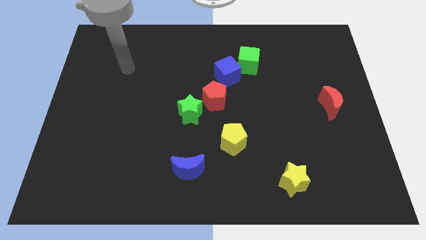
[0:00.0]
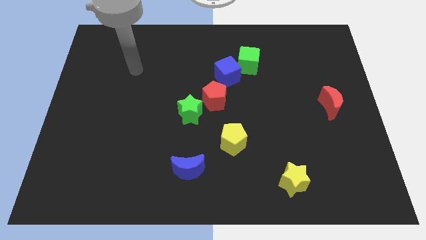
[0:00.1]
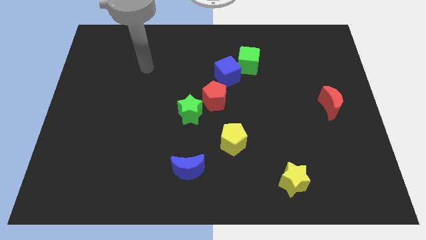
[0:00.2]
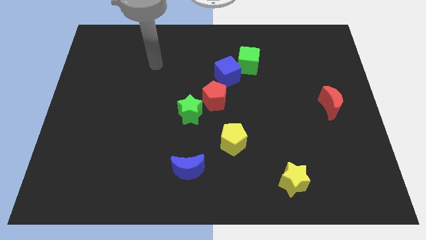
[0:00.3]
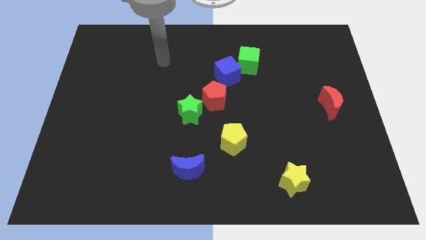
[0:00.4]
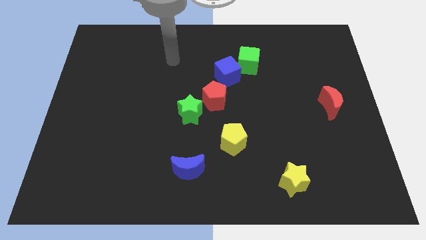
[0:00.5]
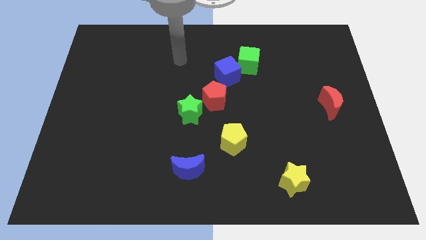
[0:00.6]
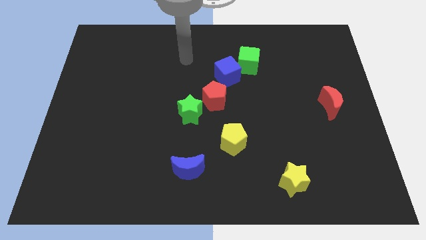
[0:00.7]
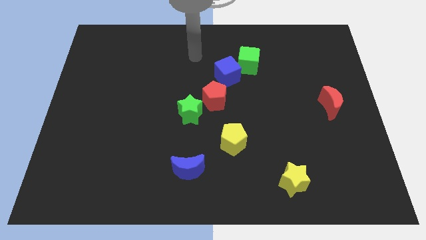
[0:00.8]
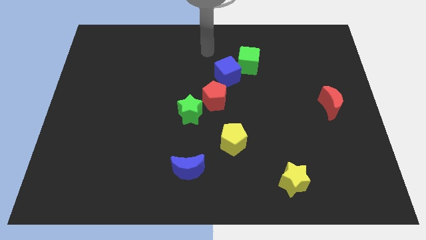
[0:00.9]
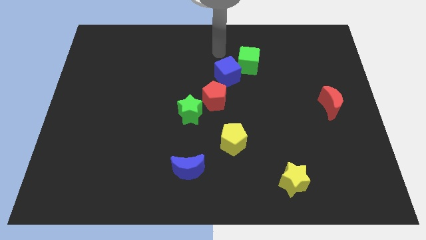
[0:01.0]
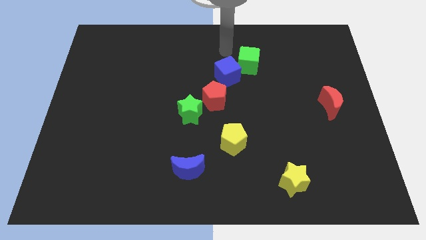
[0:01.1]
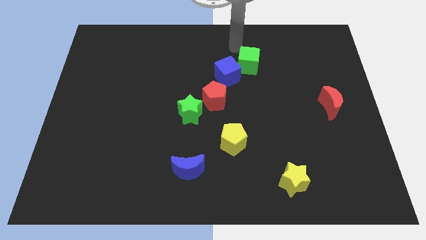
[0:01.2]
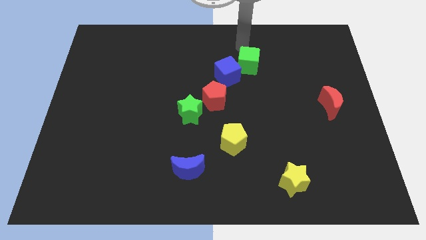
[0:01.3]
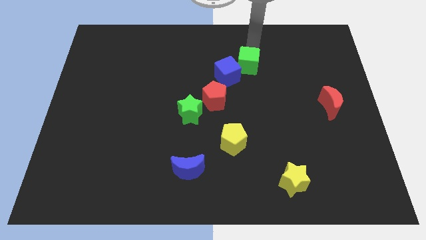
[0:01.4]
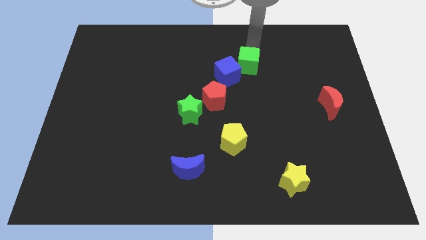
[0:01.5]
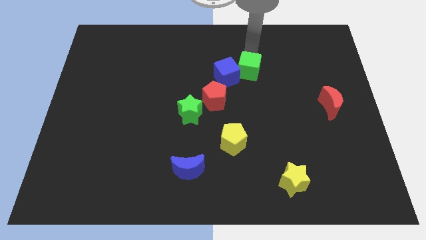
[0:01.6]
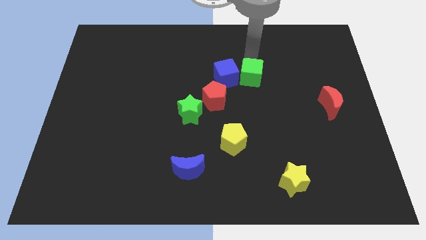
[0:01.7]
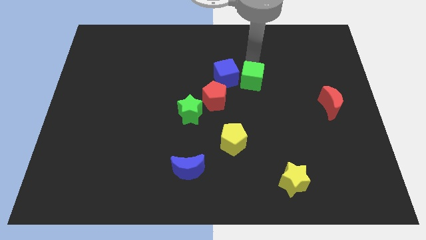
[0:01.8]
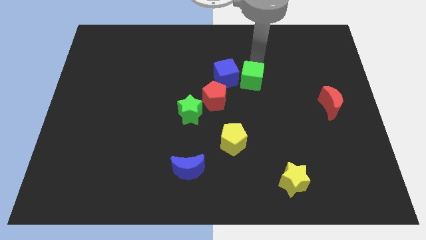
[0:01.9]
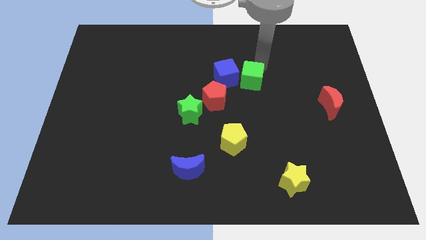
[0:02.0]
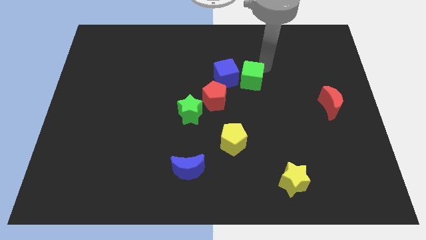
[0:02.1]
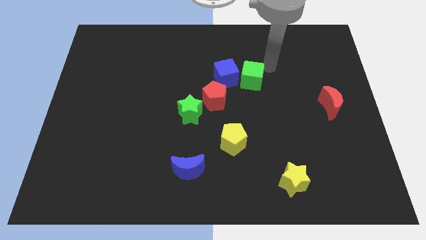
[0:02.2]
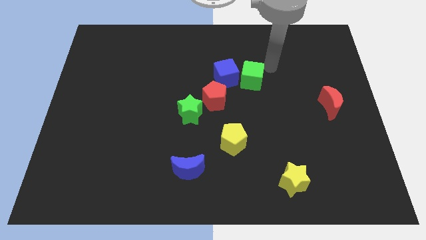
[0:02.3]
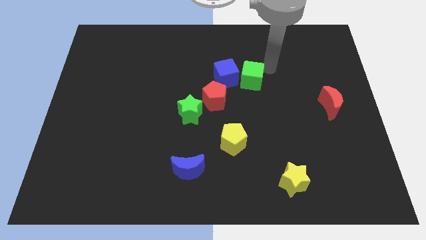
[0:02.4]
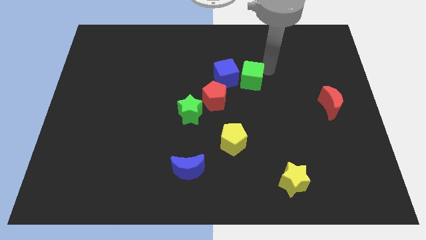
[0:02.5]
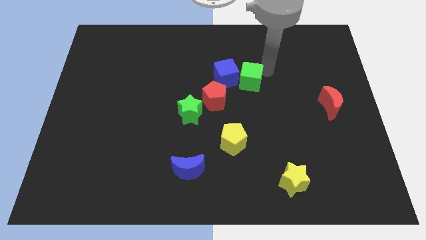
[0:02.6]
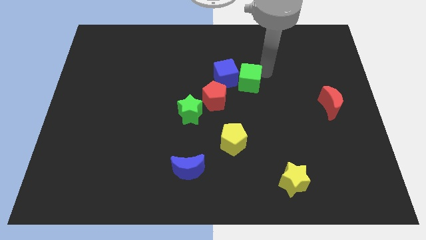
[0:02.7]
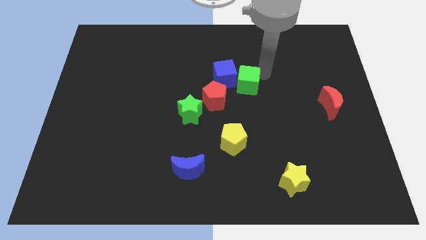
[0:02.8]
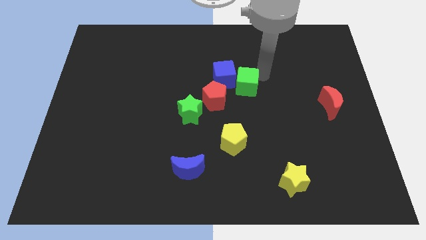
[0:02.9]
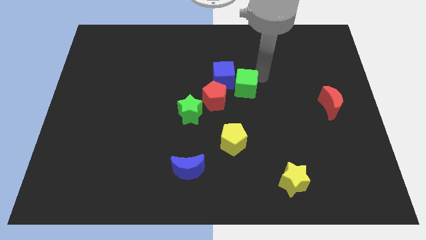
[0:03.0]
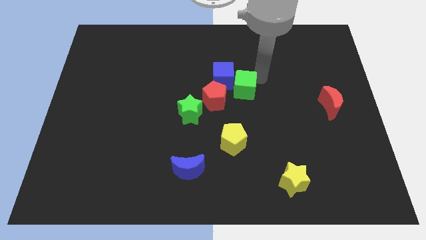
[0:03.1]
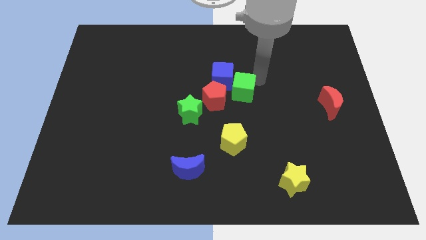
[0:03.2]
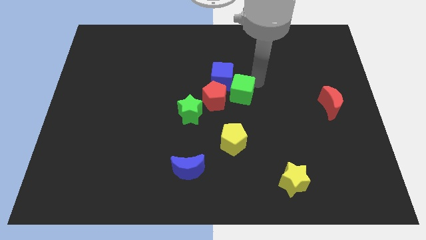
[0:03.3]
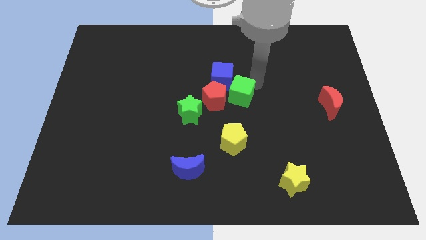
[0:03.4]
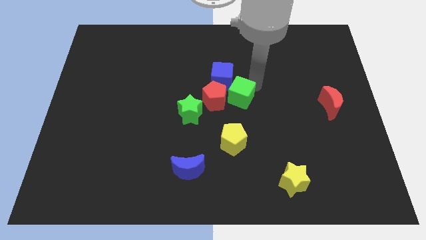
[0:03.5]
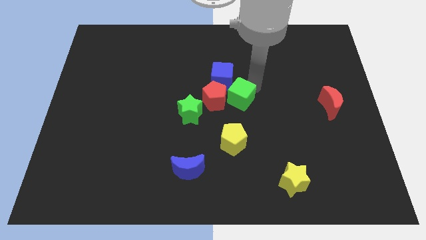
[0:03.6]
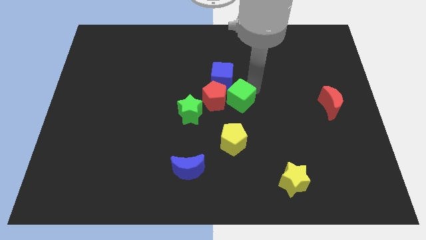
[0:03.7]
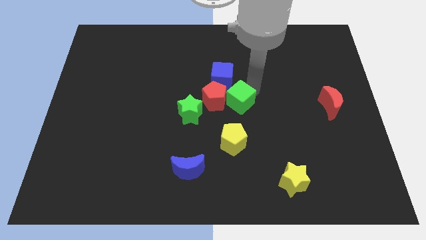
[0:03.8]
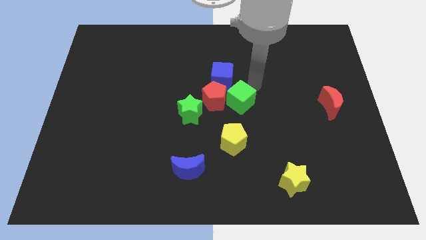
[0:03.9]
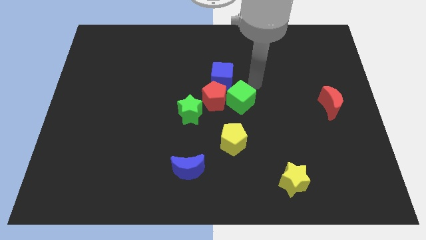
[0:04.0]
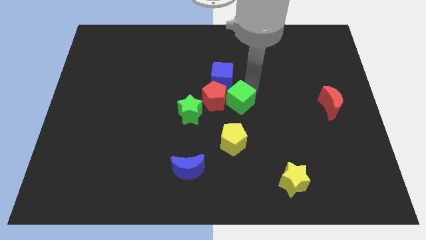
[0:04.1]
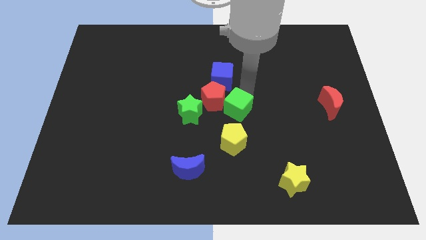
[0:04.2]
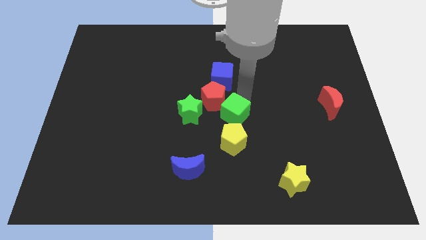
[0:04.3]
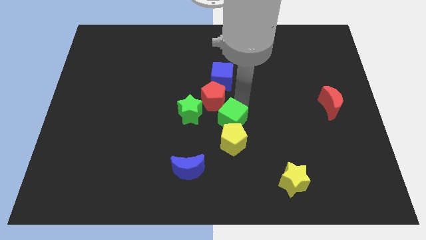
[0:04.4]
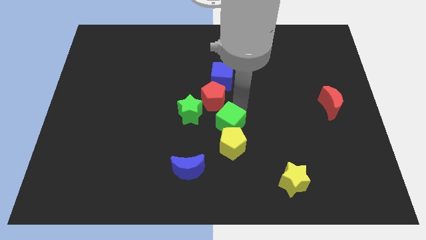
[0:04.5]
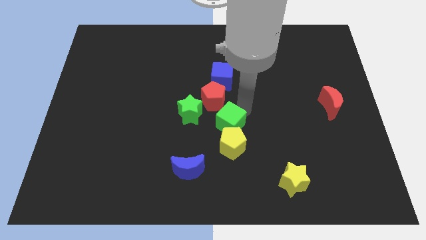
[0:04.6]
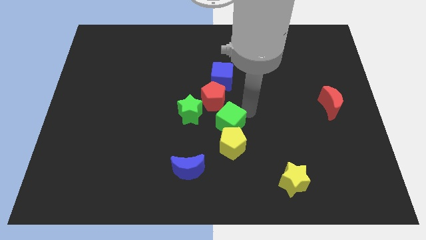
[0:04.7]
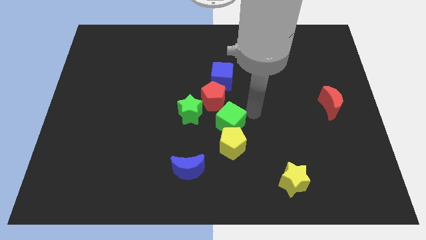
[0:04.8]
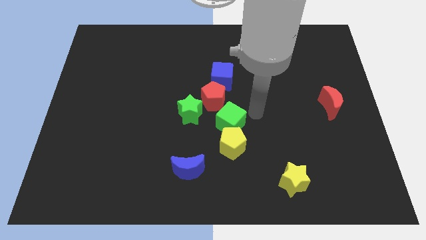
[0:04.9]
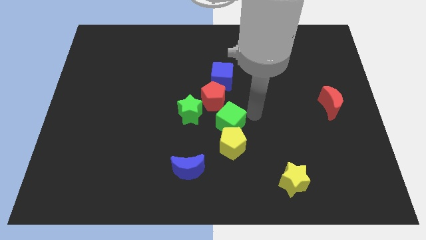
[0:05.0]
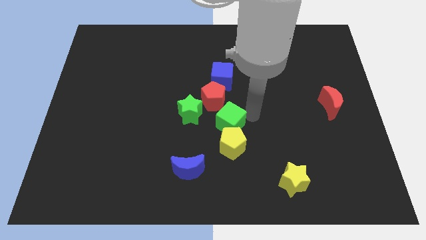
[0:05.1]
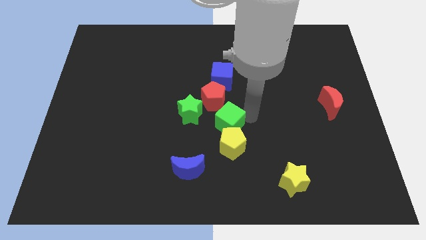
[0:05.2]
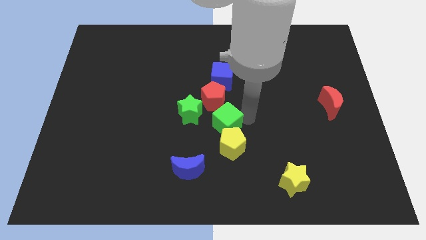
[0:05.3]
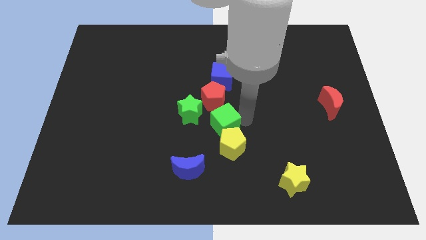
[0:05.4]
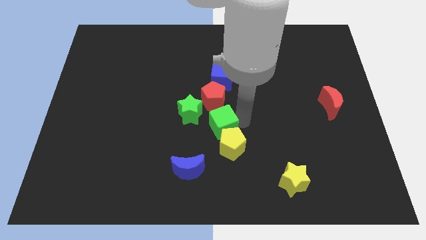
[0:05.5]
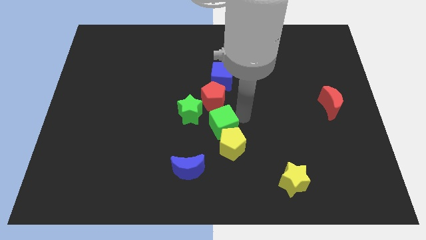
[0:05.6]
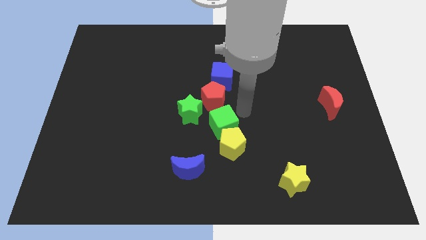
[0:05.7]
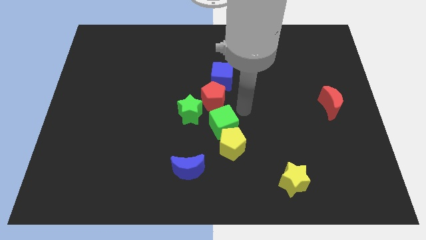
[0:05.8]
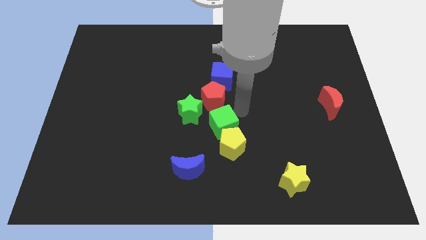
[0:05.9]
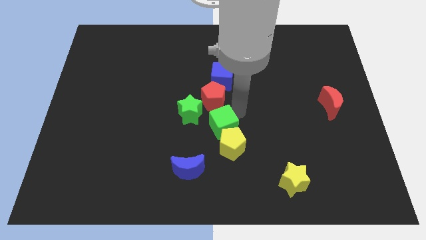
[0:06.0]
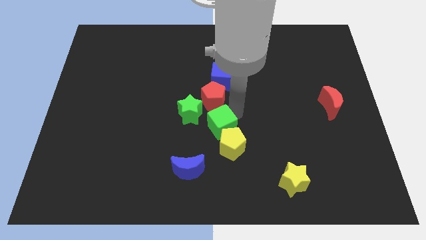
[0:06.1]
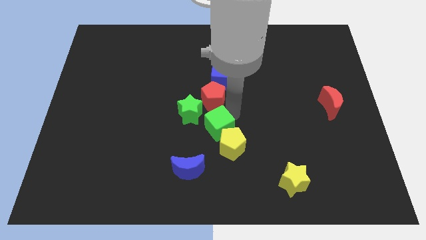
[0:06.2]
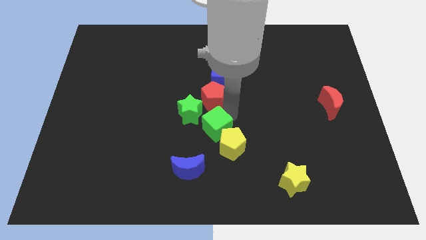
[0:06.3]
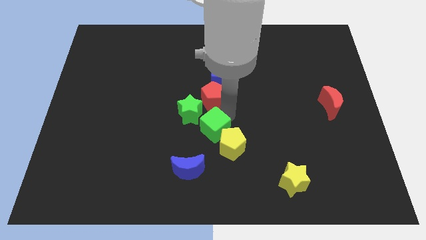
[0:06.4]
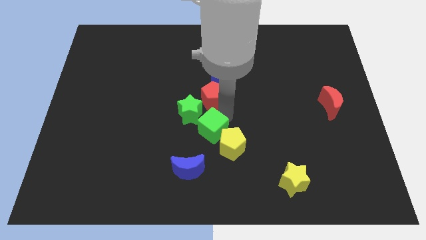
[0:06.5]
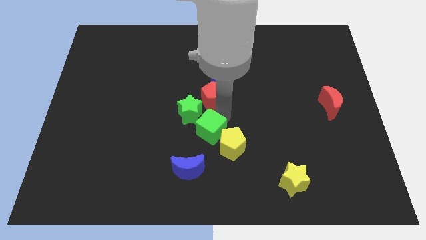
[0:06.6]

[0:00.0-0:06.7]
slide the green cube to the bottom side of the green star

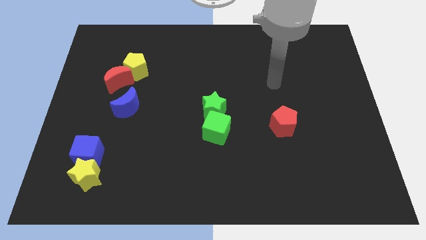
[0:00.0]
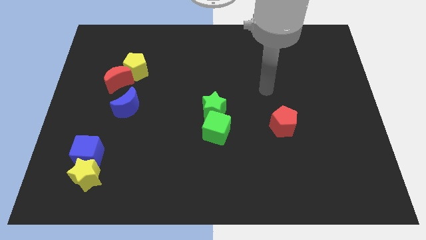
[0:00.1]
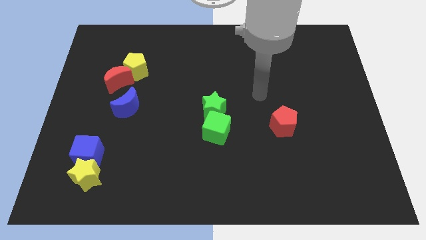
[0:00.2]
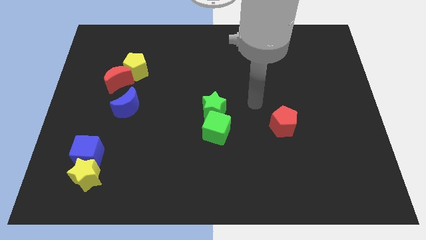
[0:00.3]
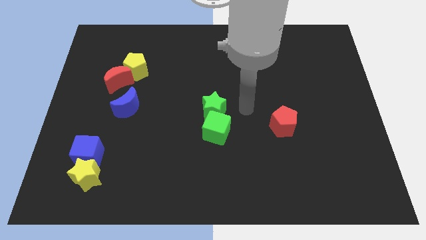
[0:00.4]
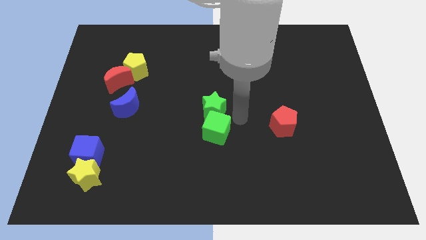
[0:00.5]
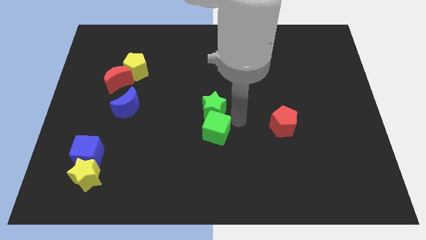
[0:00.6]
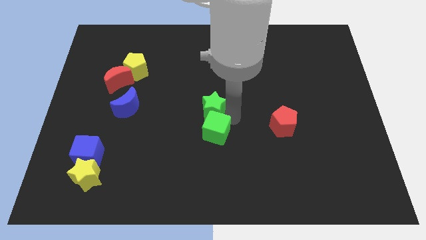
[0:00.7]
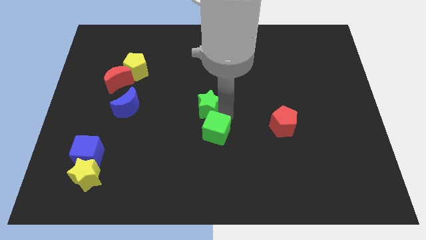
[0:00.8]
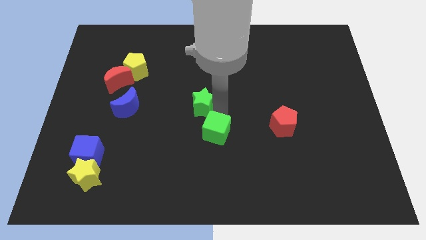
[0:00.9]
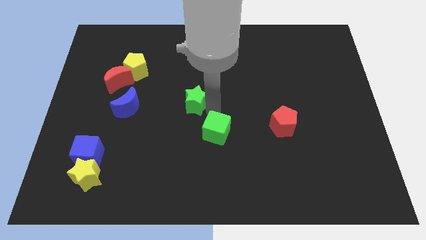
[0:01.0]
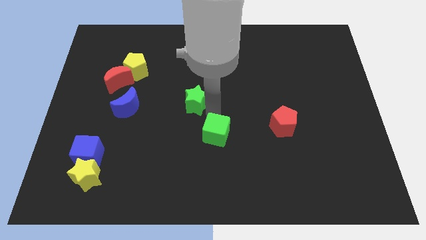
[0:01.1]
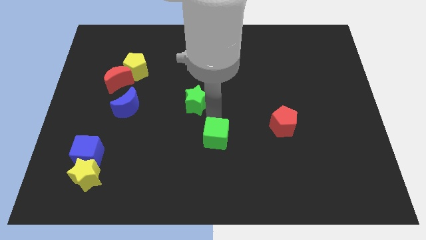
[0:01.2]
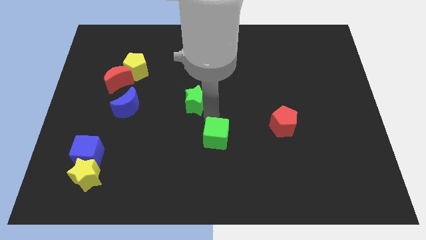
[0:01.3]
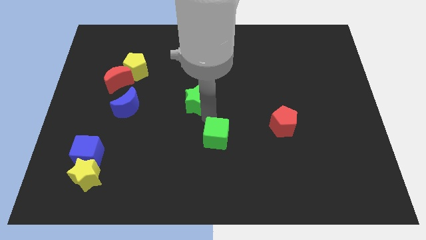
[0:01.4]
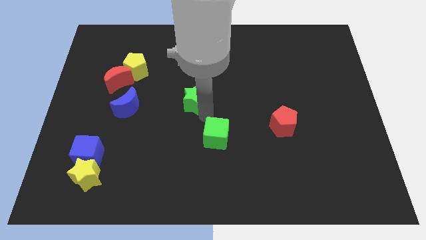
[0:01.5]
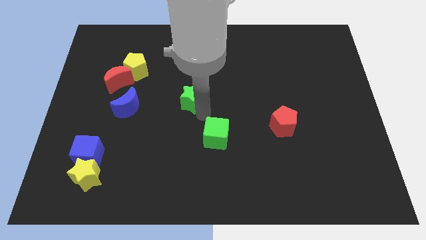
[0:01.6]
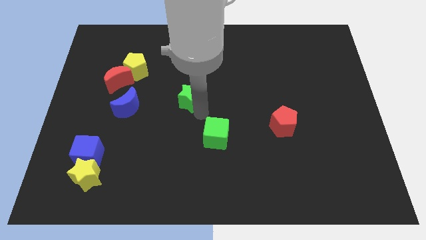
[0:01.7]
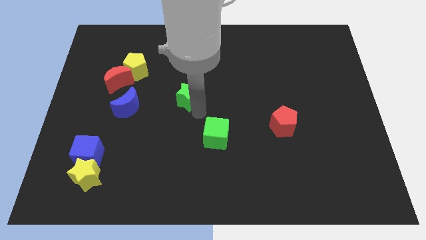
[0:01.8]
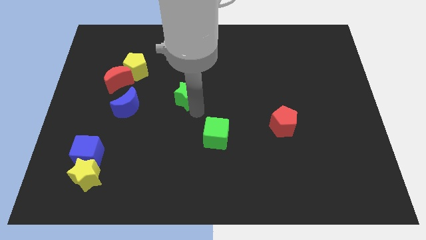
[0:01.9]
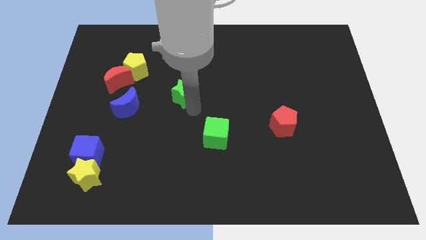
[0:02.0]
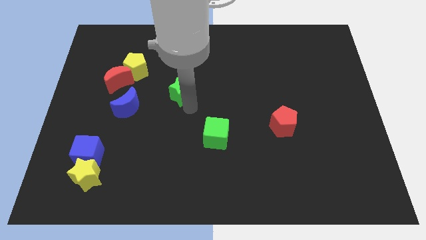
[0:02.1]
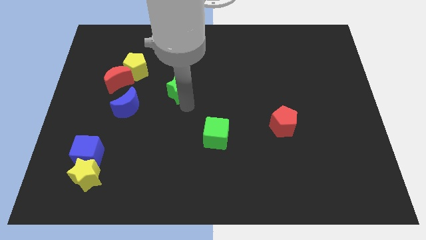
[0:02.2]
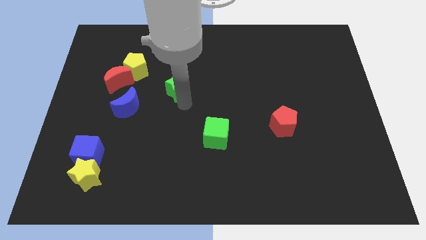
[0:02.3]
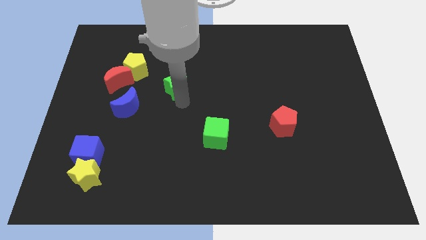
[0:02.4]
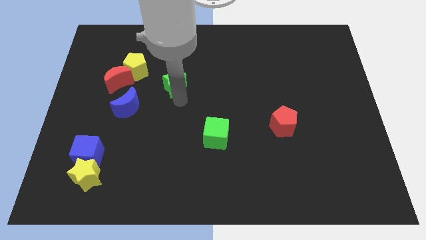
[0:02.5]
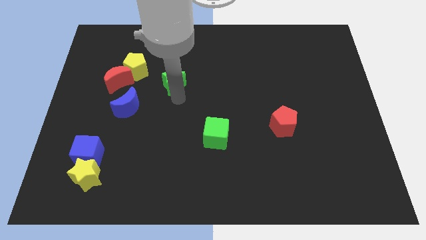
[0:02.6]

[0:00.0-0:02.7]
put the green star right of the yellow pentagon
